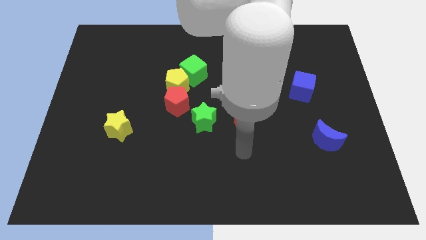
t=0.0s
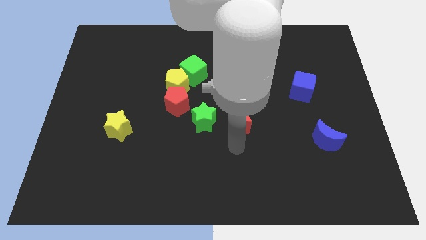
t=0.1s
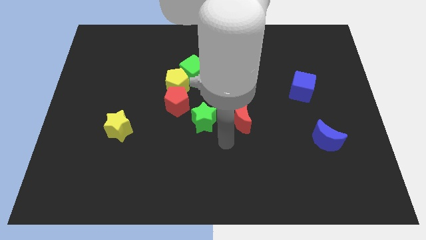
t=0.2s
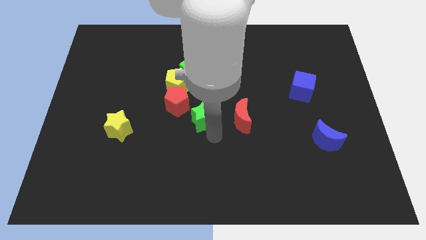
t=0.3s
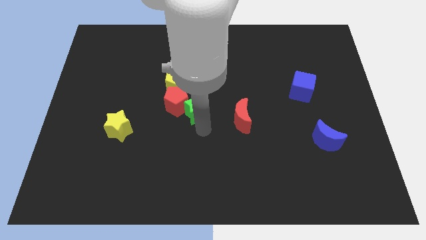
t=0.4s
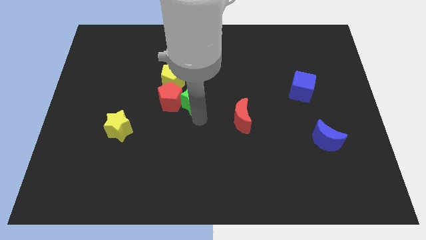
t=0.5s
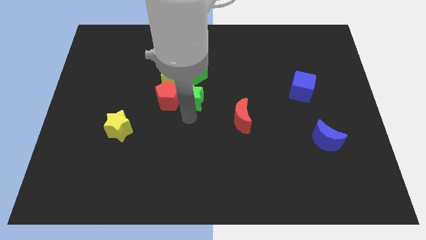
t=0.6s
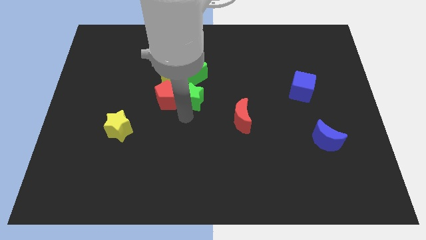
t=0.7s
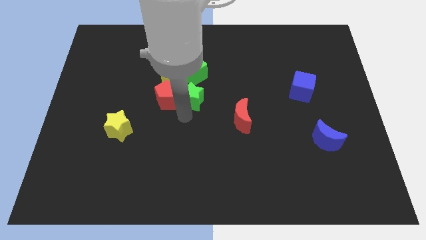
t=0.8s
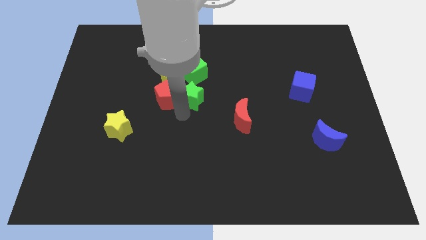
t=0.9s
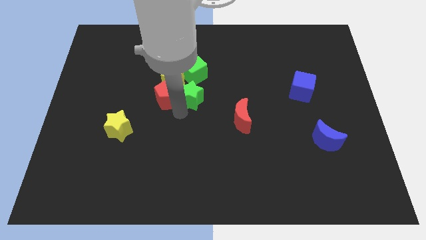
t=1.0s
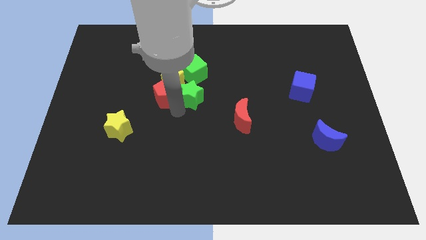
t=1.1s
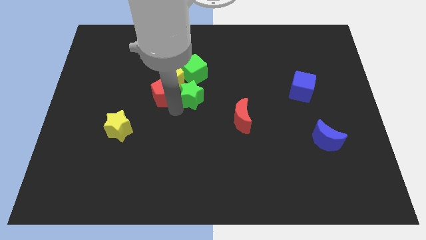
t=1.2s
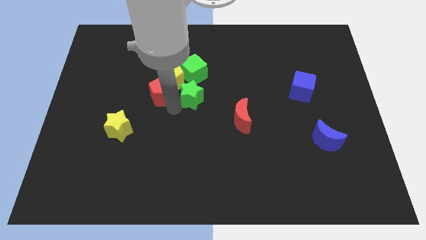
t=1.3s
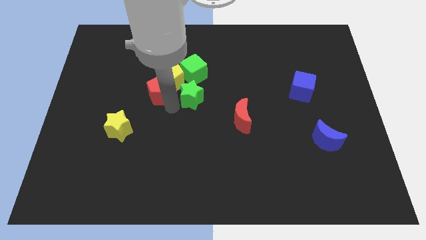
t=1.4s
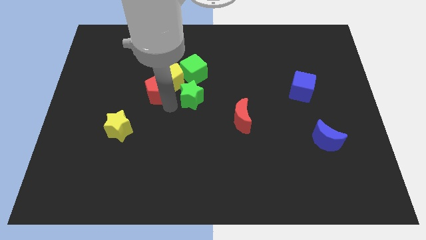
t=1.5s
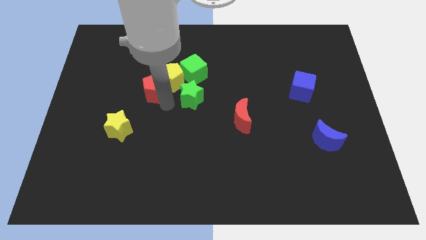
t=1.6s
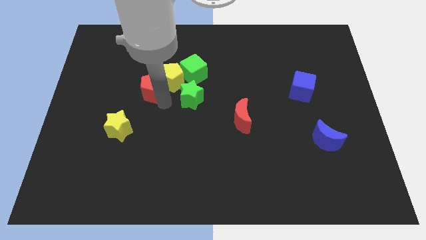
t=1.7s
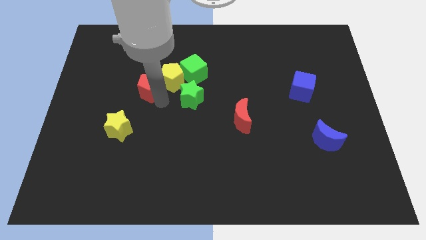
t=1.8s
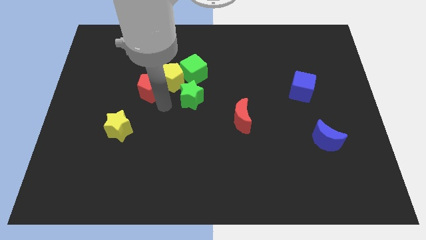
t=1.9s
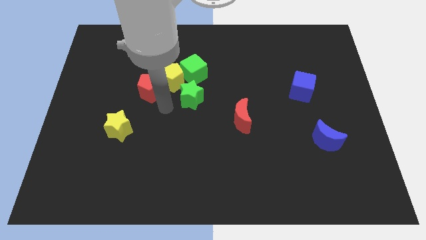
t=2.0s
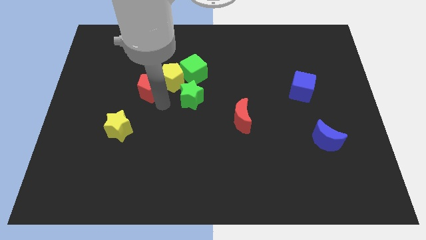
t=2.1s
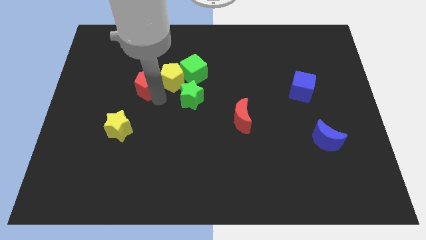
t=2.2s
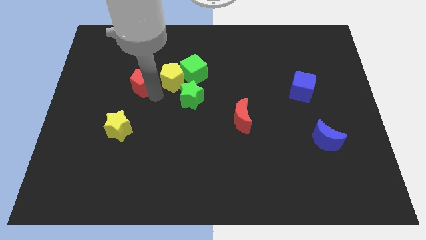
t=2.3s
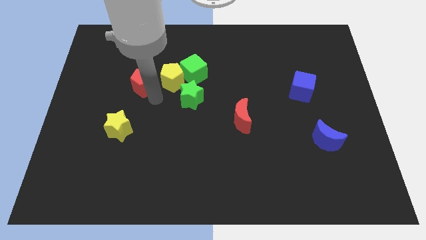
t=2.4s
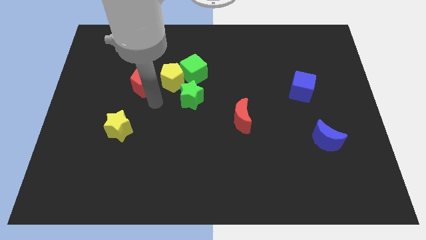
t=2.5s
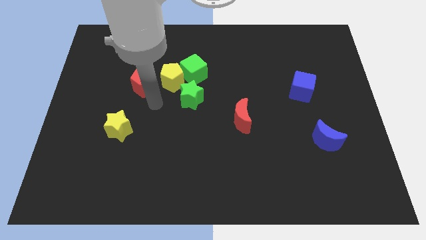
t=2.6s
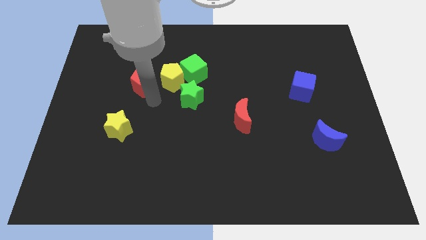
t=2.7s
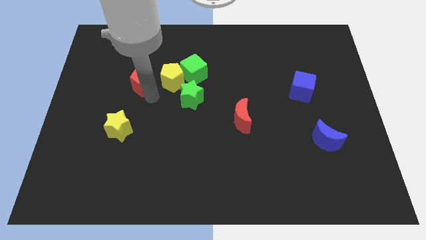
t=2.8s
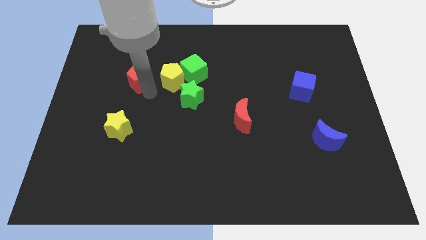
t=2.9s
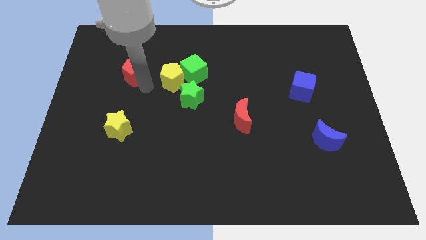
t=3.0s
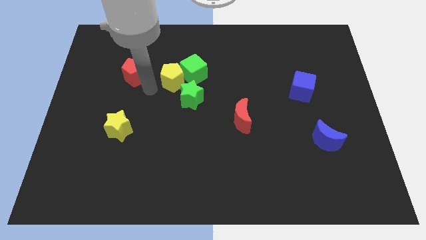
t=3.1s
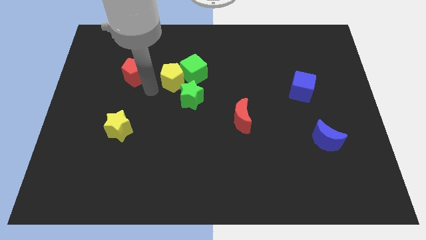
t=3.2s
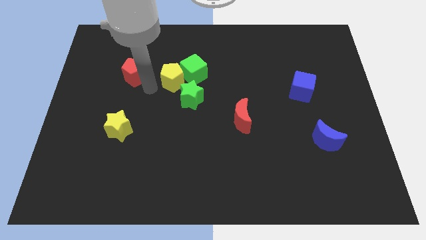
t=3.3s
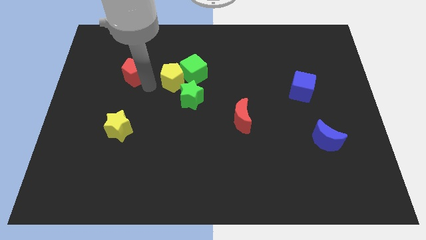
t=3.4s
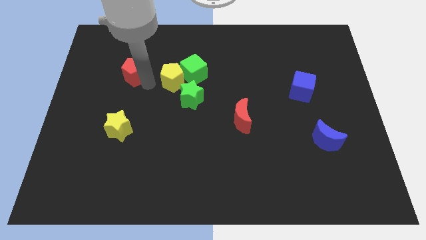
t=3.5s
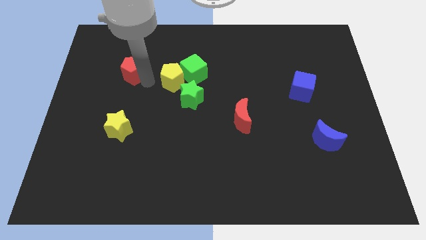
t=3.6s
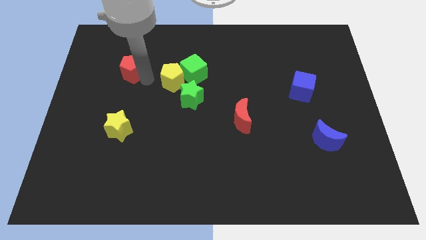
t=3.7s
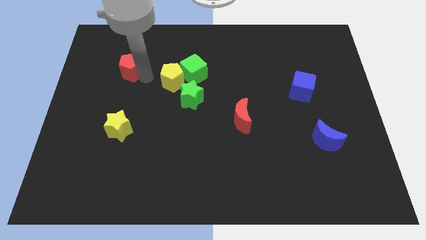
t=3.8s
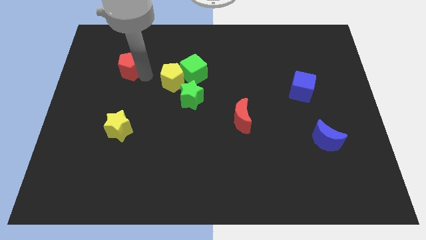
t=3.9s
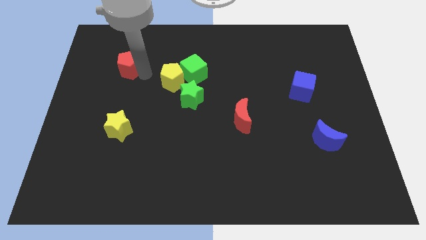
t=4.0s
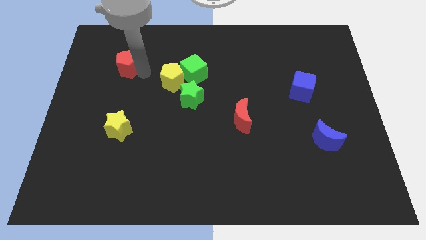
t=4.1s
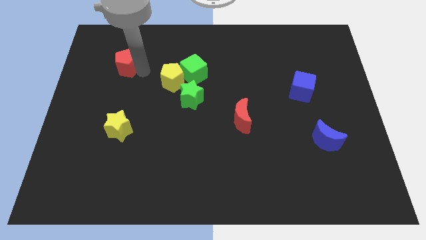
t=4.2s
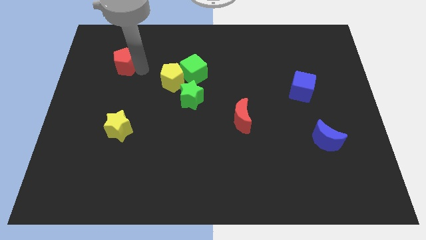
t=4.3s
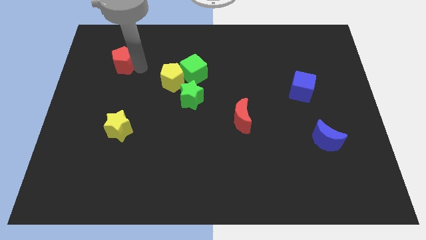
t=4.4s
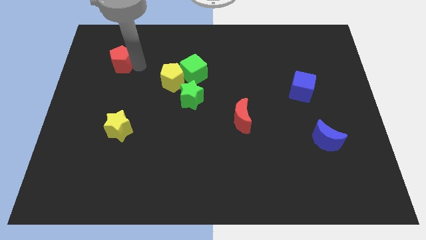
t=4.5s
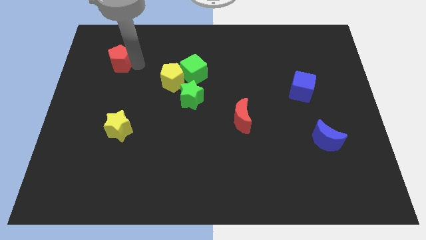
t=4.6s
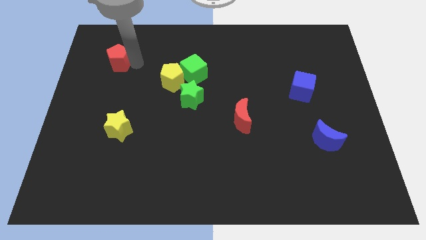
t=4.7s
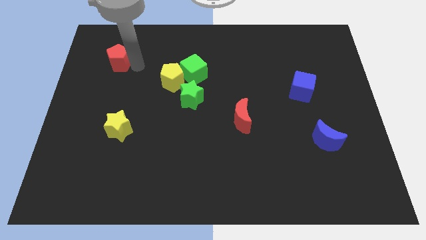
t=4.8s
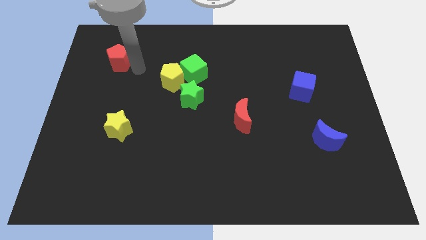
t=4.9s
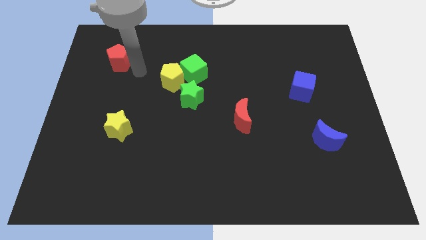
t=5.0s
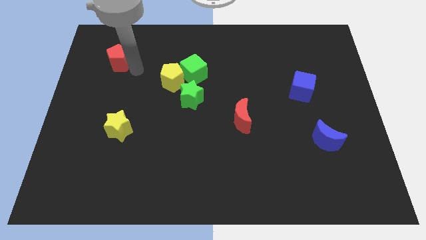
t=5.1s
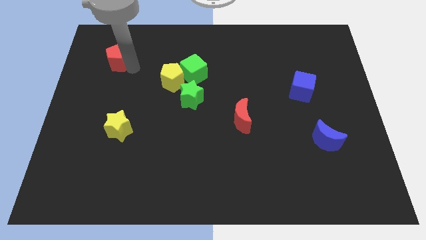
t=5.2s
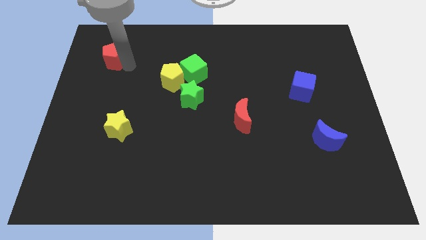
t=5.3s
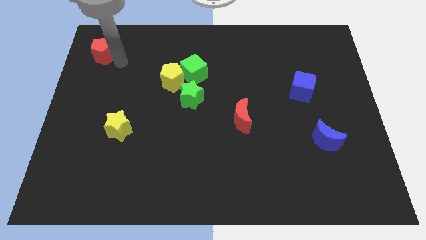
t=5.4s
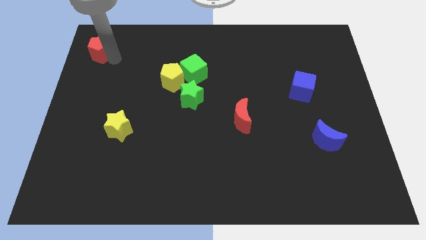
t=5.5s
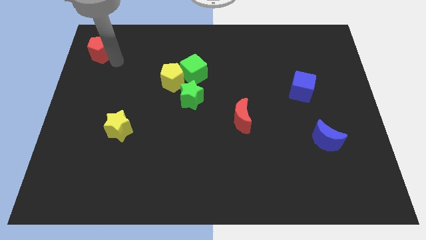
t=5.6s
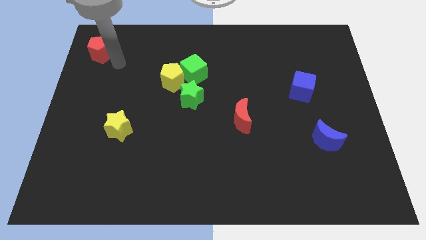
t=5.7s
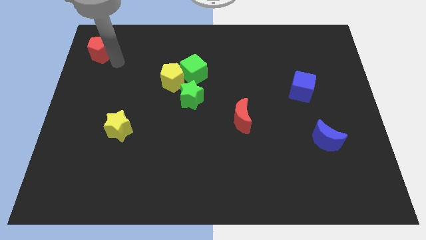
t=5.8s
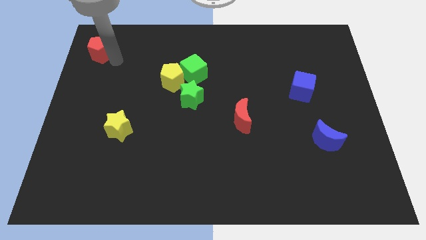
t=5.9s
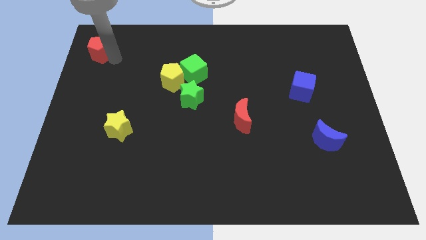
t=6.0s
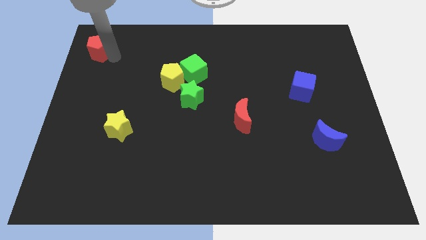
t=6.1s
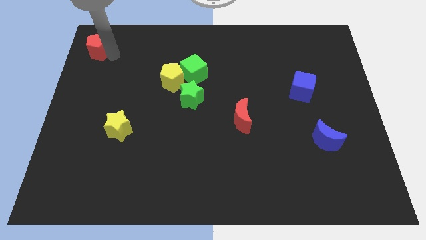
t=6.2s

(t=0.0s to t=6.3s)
push the red pentagon to the top left

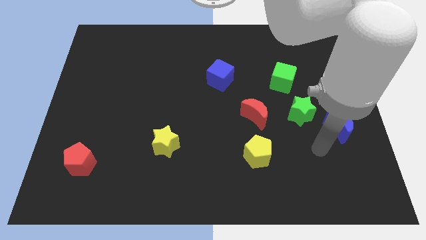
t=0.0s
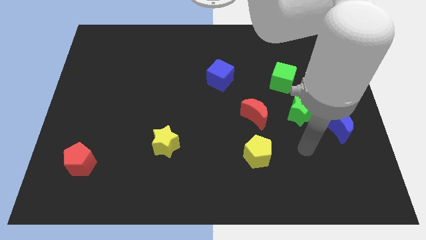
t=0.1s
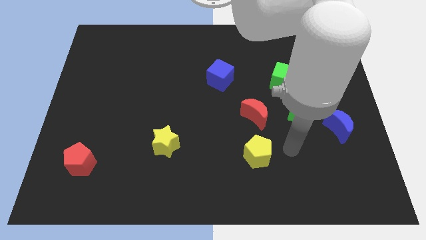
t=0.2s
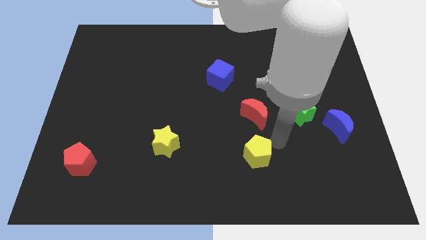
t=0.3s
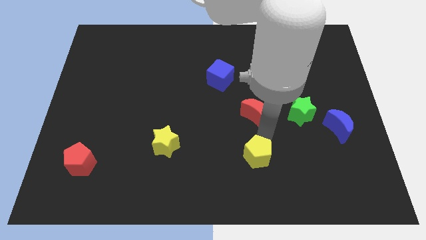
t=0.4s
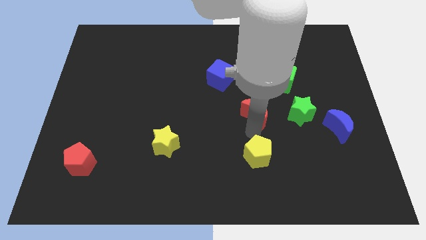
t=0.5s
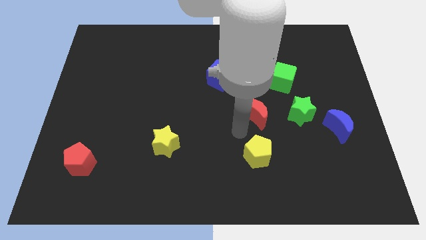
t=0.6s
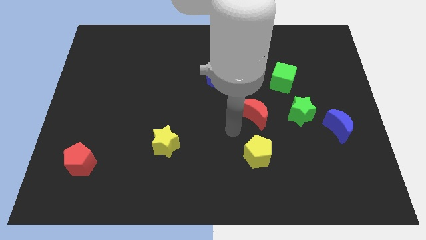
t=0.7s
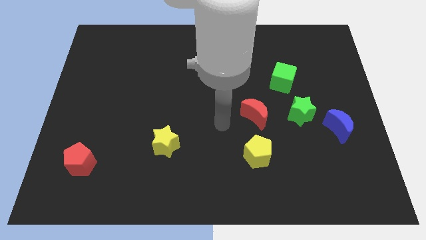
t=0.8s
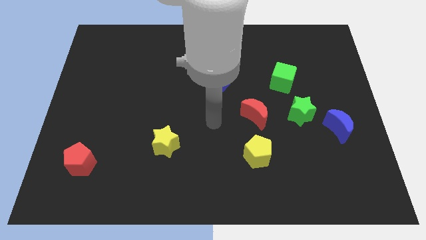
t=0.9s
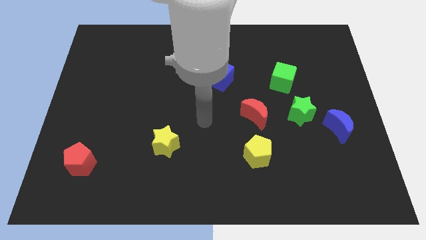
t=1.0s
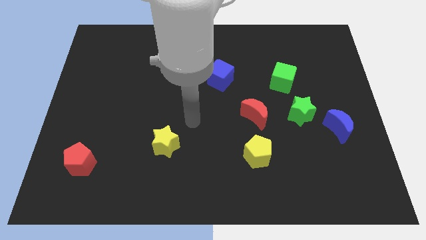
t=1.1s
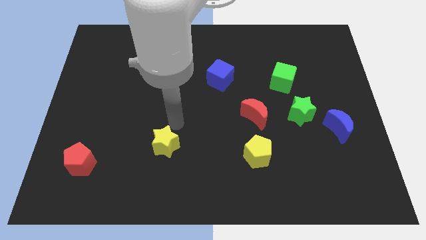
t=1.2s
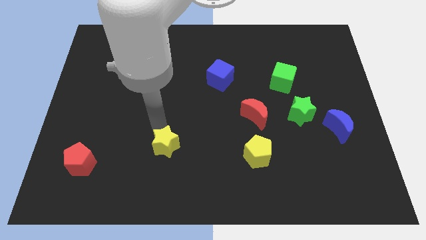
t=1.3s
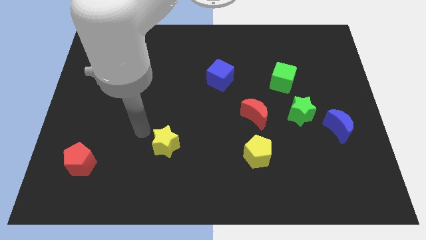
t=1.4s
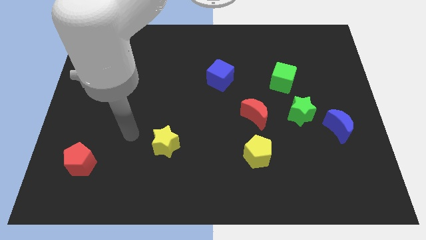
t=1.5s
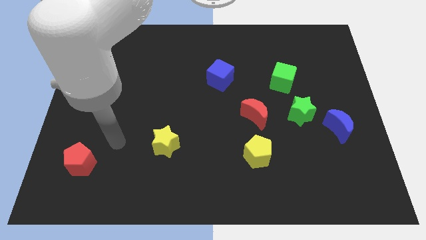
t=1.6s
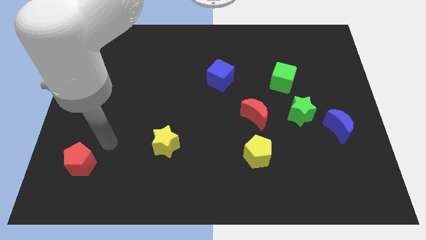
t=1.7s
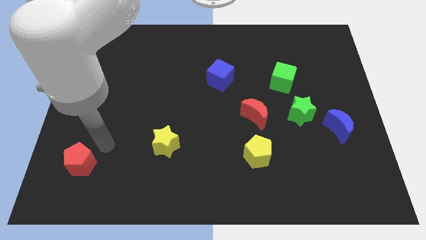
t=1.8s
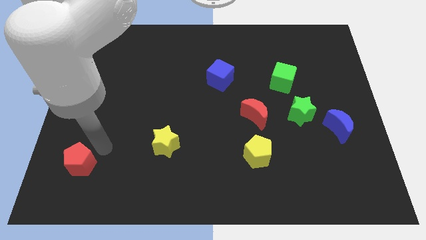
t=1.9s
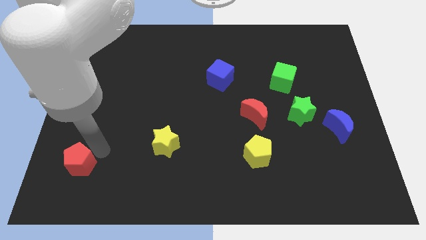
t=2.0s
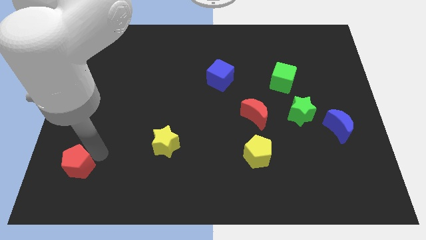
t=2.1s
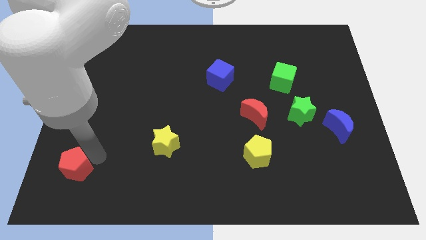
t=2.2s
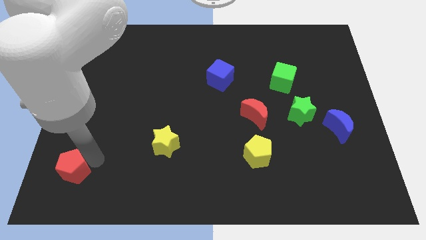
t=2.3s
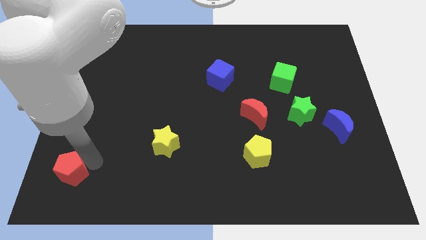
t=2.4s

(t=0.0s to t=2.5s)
move the red pentagon to the lower left corner
